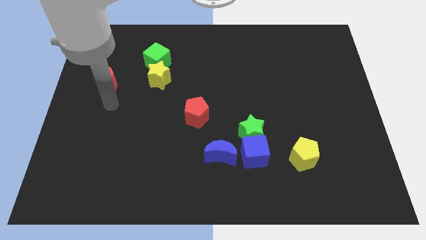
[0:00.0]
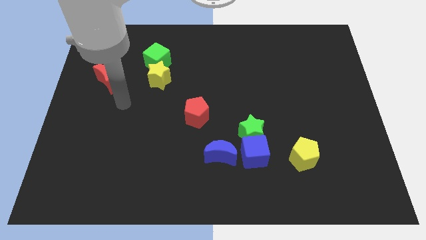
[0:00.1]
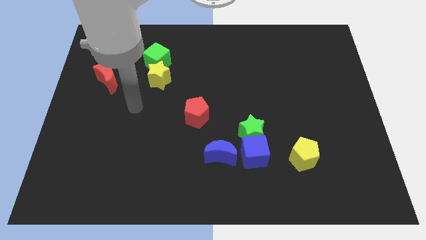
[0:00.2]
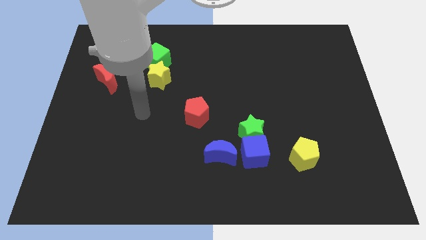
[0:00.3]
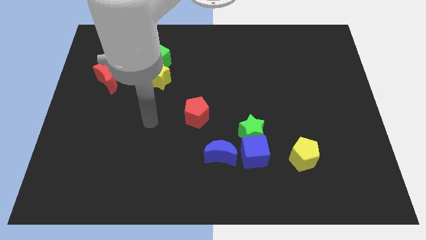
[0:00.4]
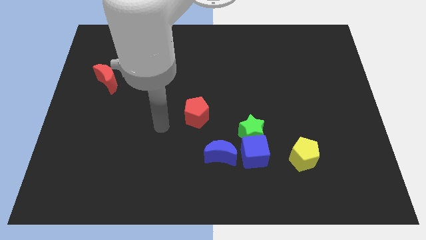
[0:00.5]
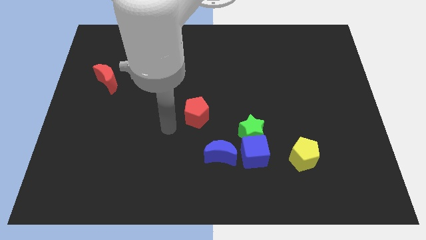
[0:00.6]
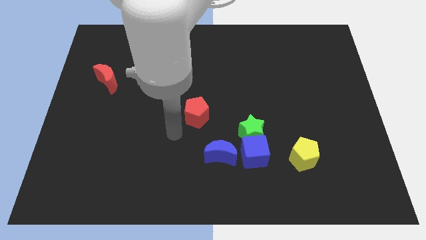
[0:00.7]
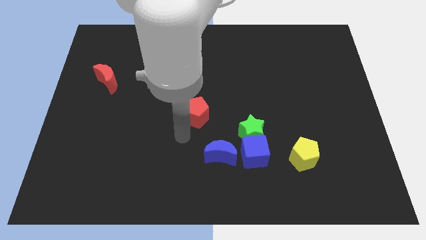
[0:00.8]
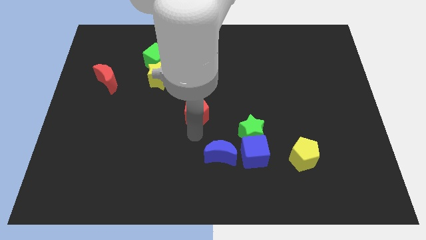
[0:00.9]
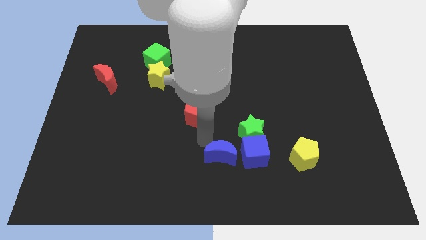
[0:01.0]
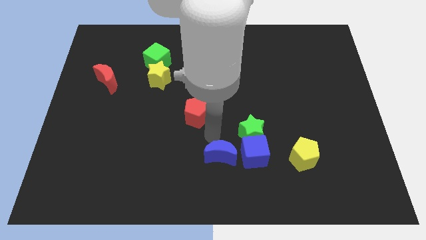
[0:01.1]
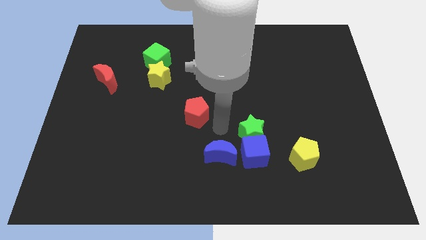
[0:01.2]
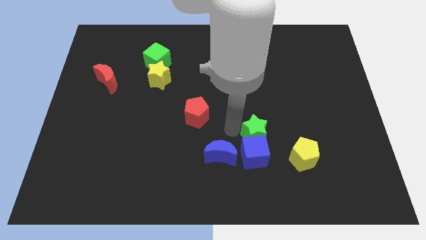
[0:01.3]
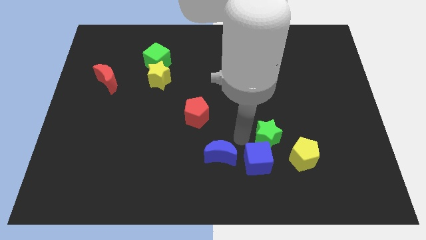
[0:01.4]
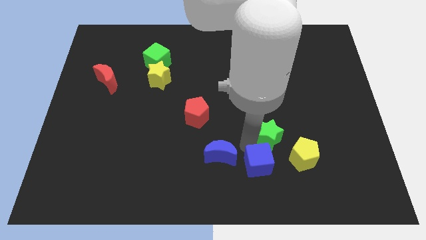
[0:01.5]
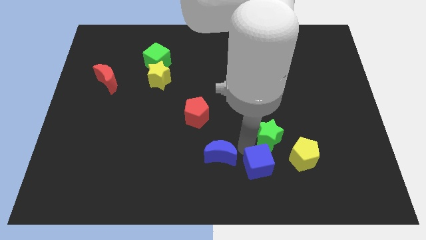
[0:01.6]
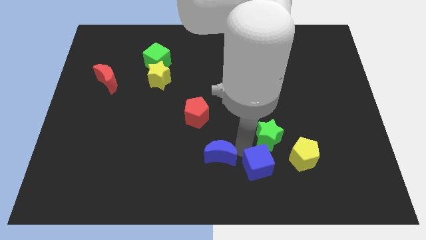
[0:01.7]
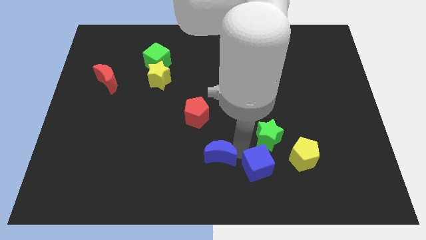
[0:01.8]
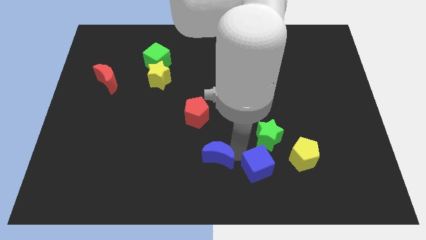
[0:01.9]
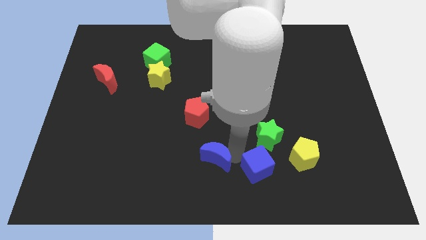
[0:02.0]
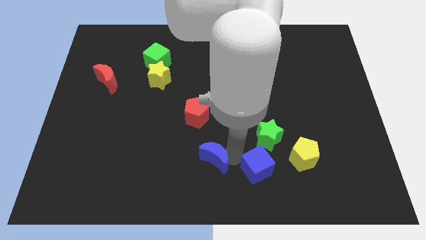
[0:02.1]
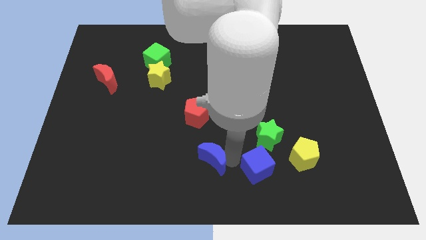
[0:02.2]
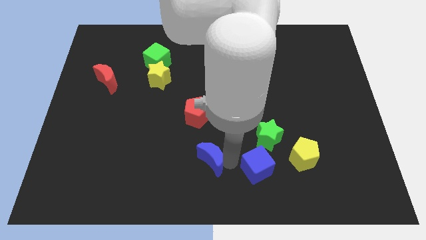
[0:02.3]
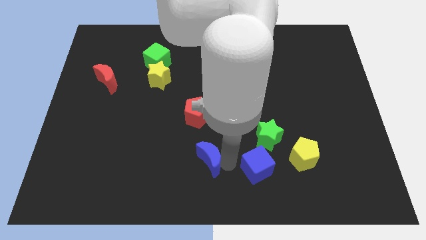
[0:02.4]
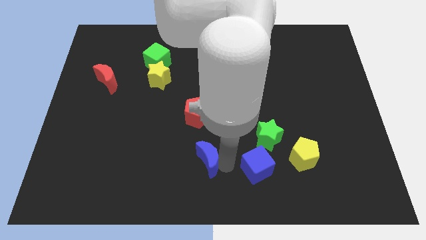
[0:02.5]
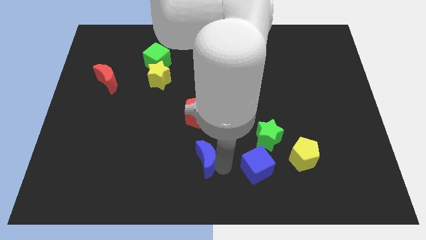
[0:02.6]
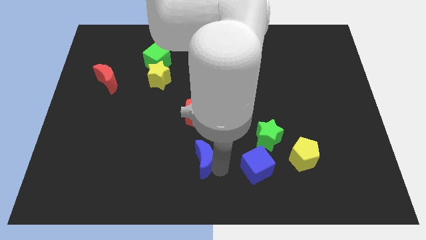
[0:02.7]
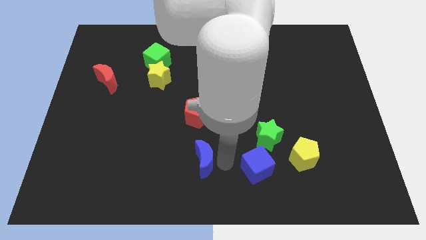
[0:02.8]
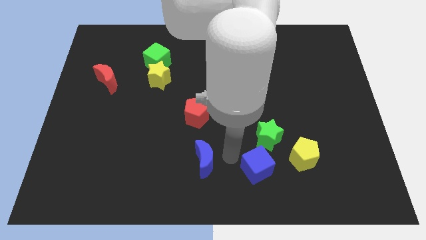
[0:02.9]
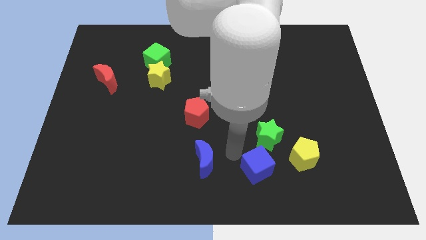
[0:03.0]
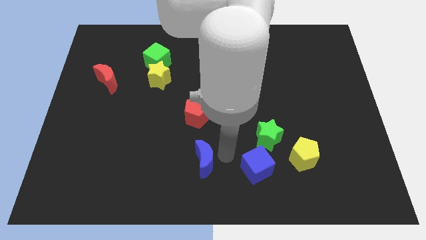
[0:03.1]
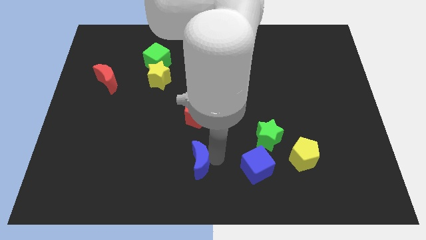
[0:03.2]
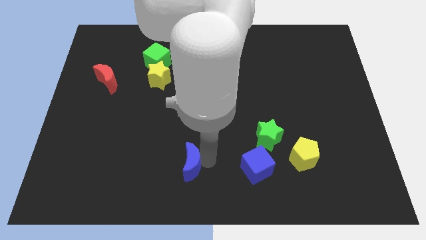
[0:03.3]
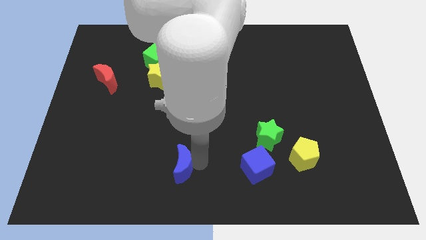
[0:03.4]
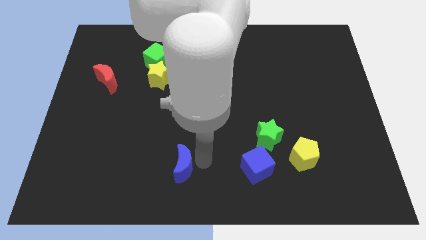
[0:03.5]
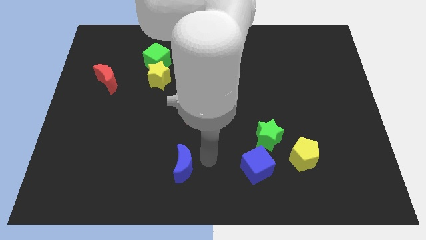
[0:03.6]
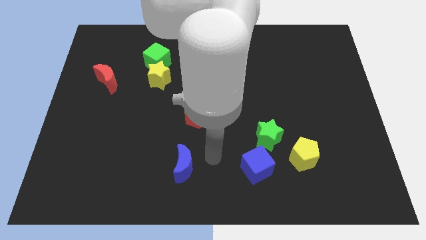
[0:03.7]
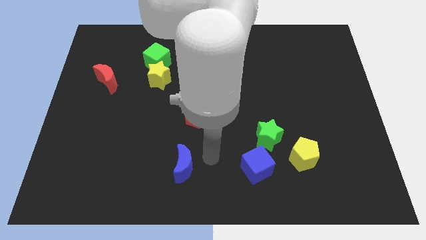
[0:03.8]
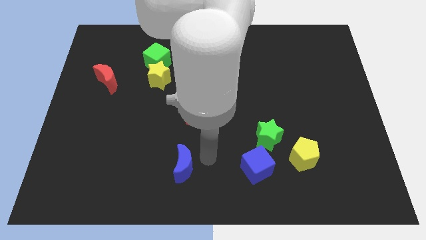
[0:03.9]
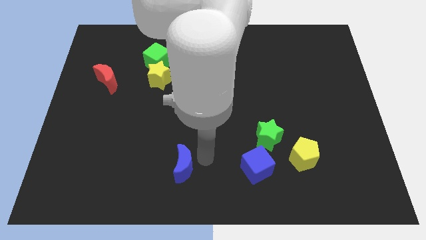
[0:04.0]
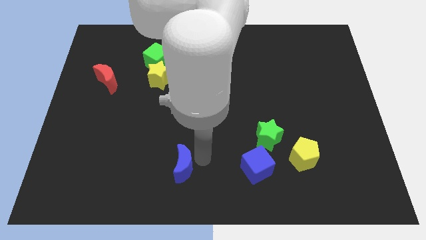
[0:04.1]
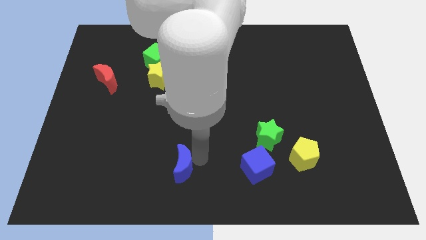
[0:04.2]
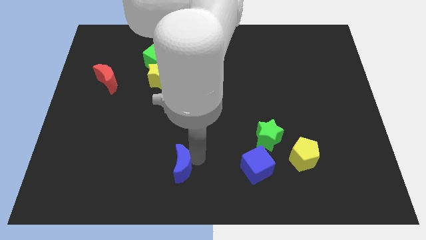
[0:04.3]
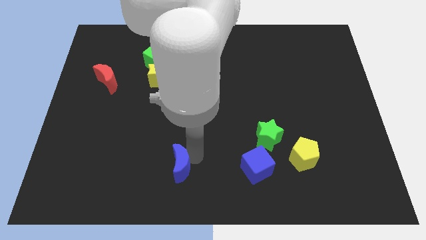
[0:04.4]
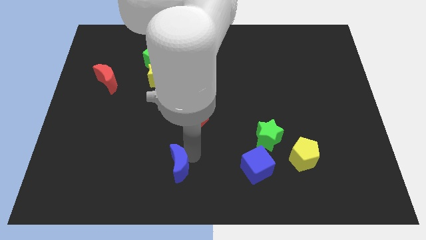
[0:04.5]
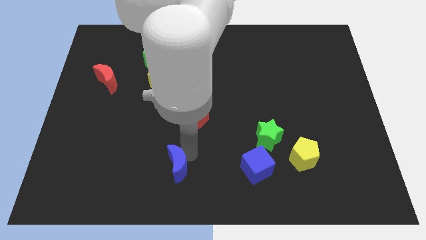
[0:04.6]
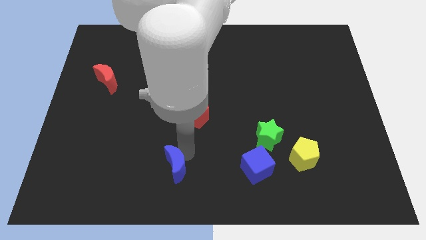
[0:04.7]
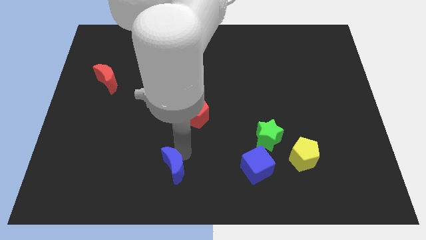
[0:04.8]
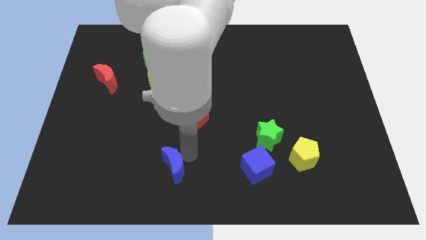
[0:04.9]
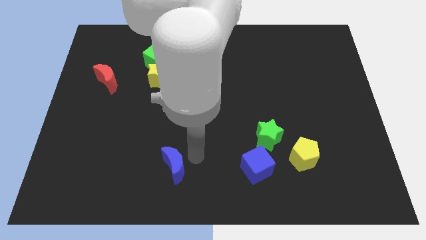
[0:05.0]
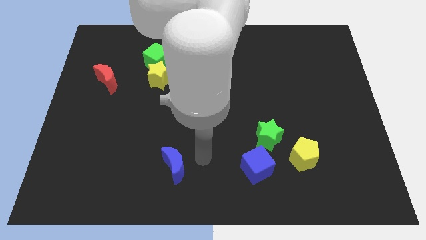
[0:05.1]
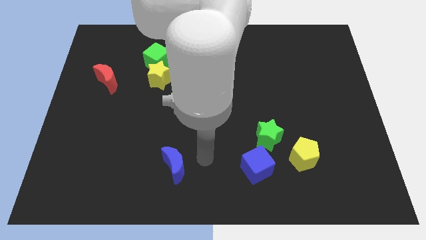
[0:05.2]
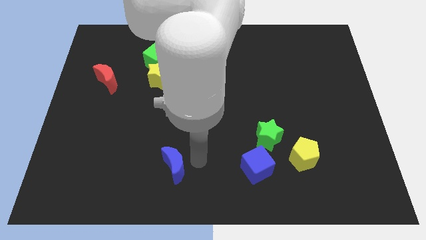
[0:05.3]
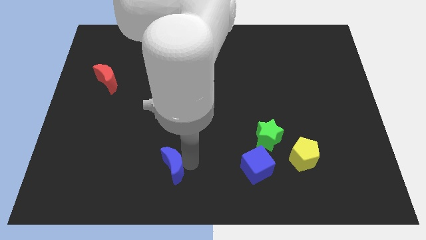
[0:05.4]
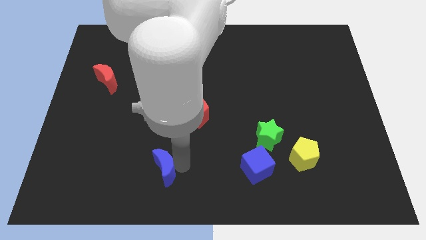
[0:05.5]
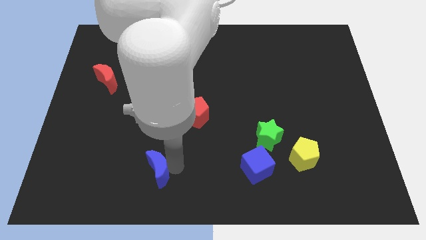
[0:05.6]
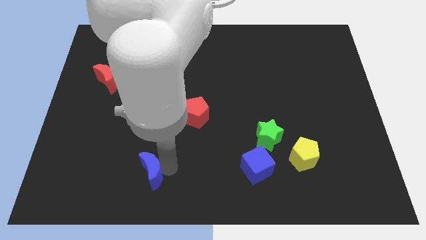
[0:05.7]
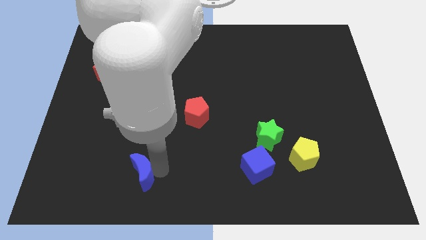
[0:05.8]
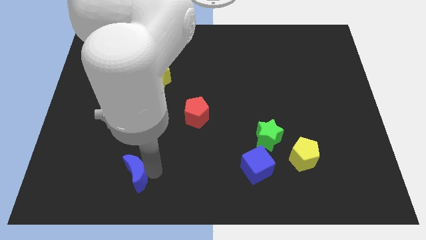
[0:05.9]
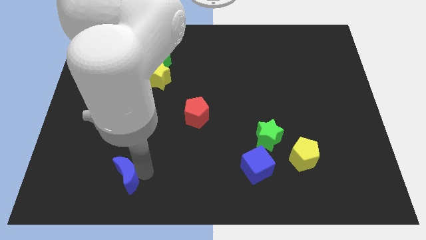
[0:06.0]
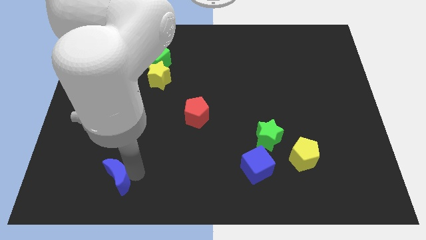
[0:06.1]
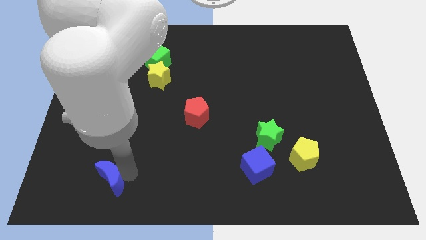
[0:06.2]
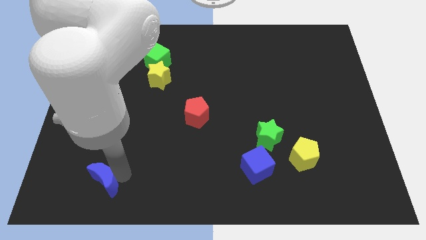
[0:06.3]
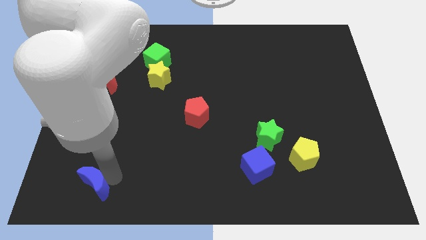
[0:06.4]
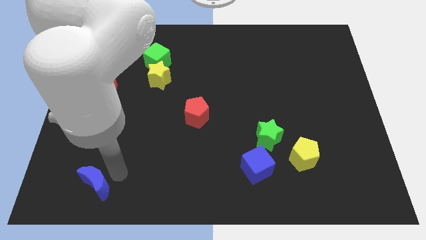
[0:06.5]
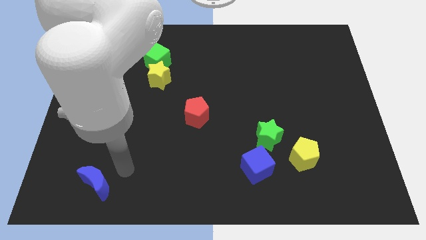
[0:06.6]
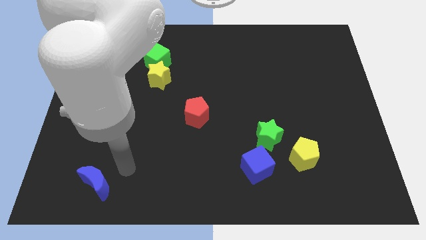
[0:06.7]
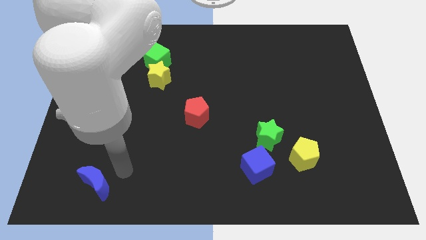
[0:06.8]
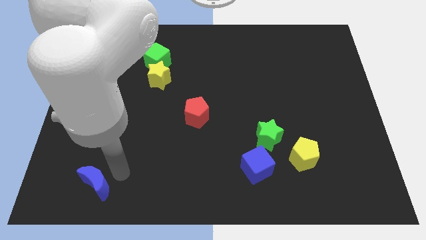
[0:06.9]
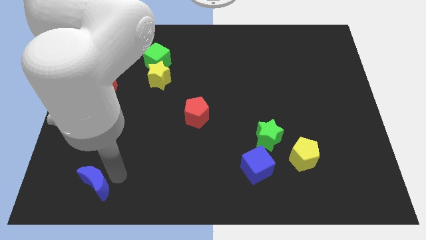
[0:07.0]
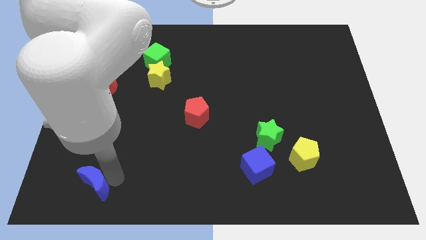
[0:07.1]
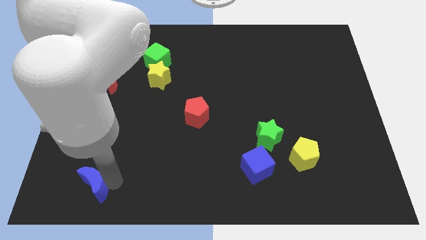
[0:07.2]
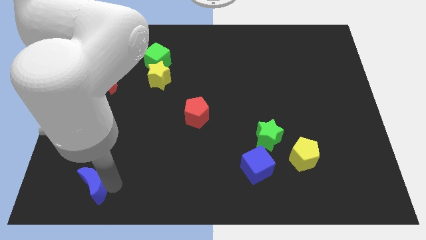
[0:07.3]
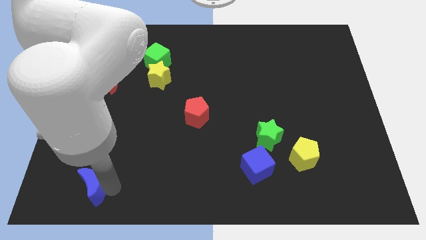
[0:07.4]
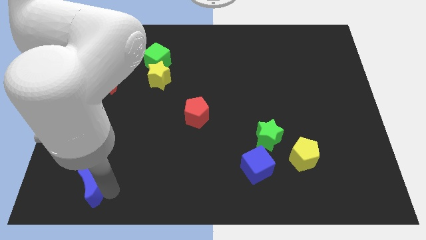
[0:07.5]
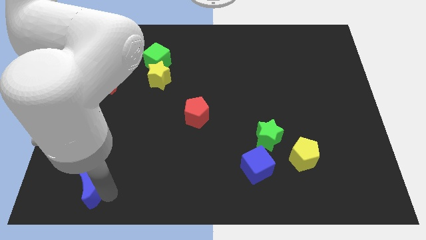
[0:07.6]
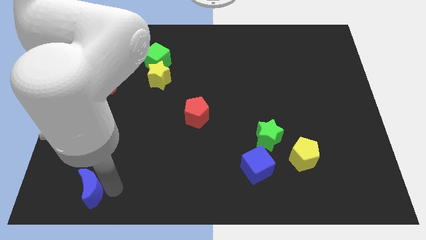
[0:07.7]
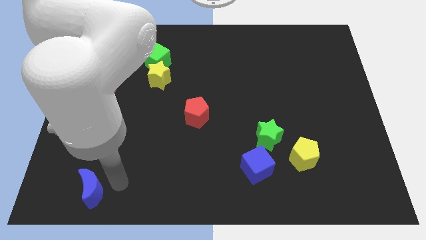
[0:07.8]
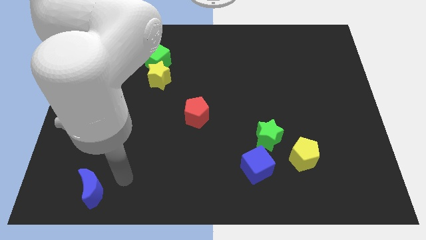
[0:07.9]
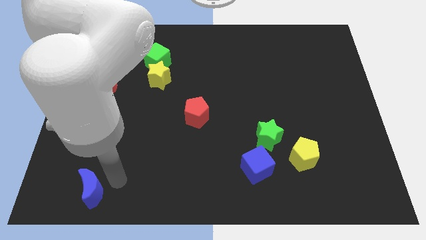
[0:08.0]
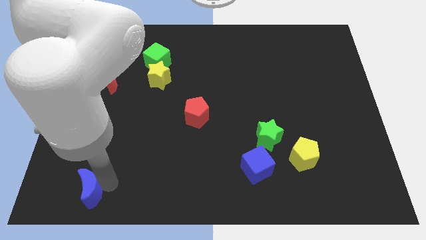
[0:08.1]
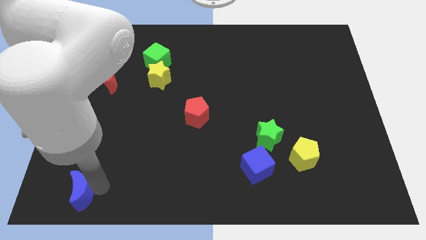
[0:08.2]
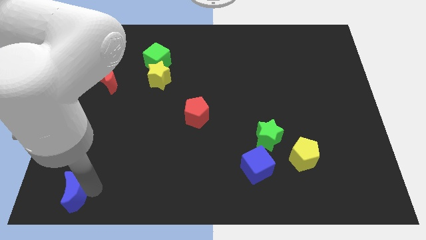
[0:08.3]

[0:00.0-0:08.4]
push the blue moon to the lower left corner
